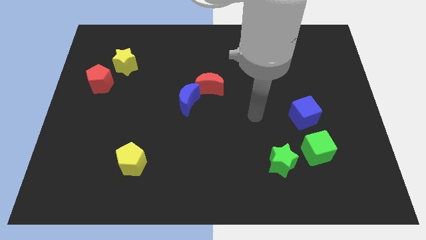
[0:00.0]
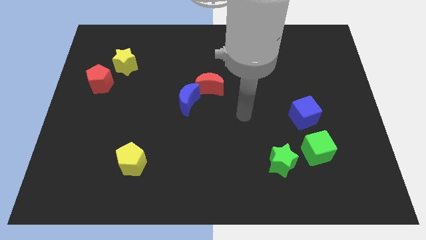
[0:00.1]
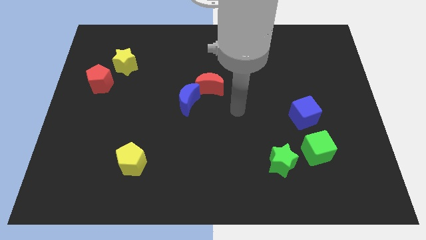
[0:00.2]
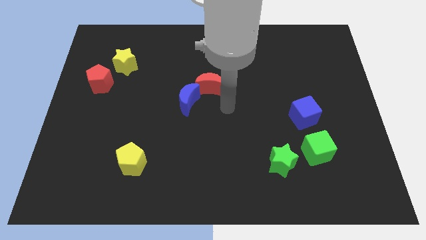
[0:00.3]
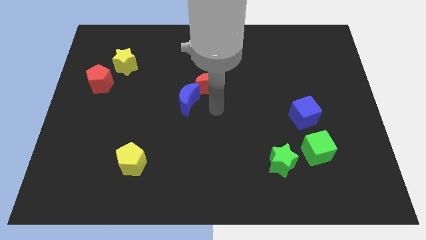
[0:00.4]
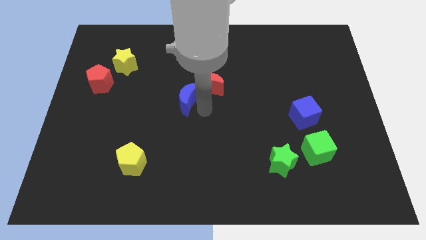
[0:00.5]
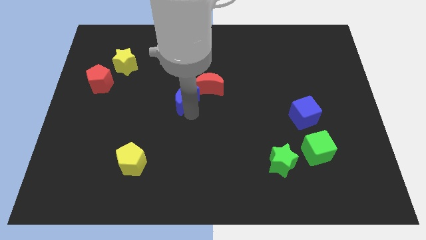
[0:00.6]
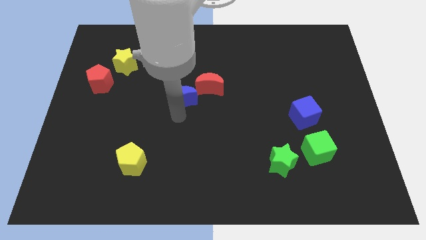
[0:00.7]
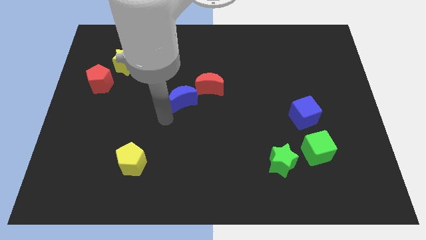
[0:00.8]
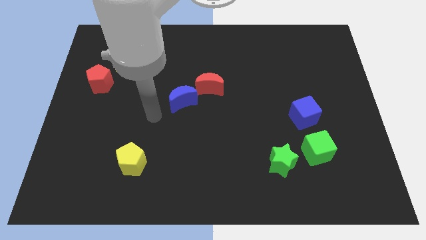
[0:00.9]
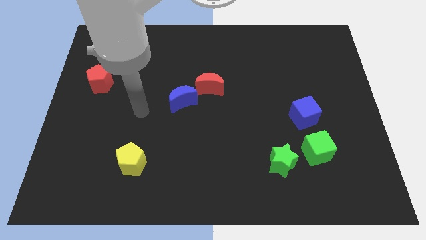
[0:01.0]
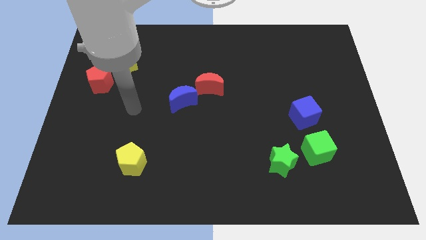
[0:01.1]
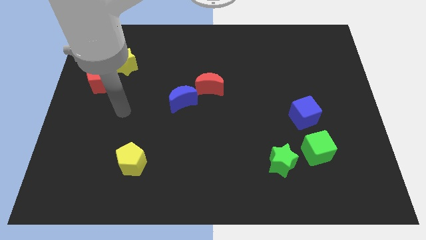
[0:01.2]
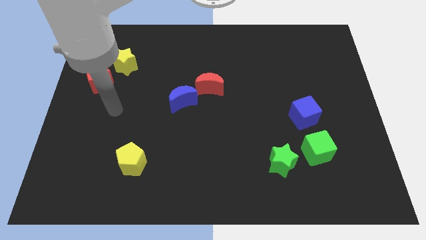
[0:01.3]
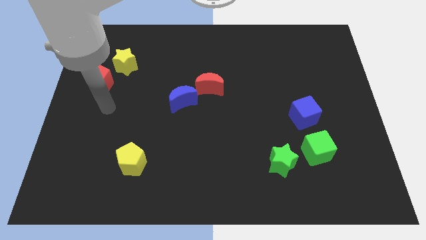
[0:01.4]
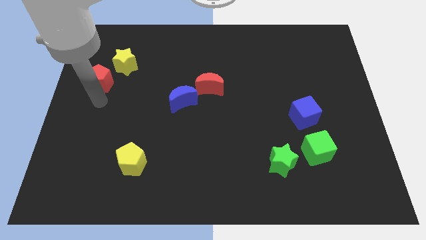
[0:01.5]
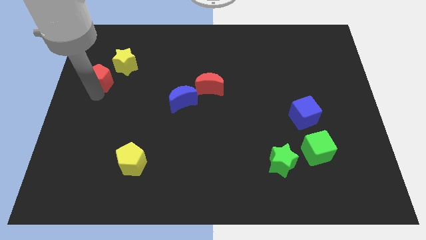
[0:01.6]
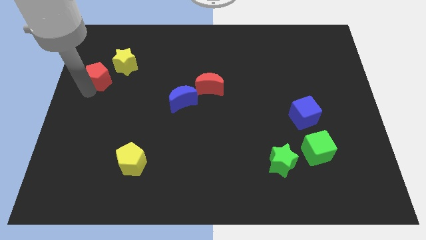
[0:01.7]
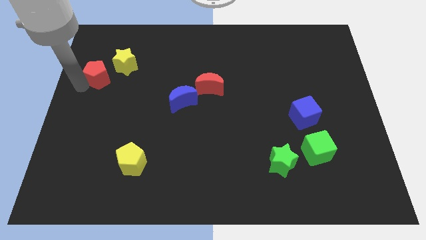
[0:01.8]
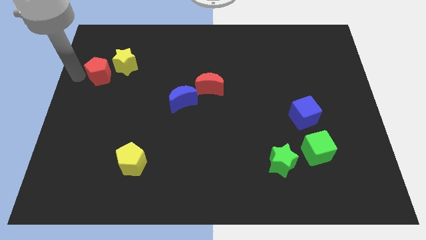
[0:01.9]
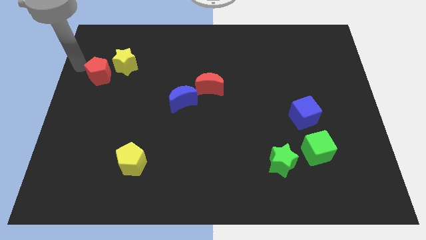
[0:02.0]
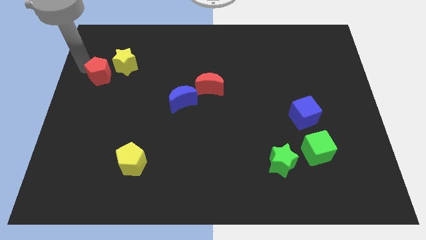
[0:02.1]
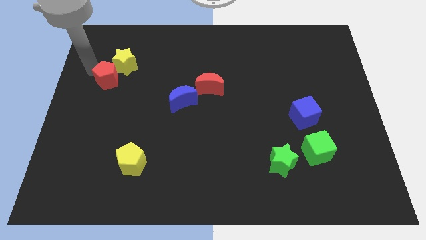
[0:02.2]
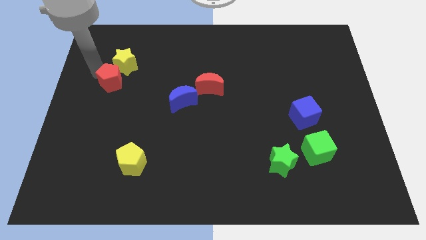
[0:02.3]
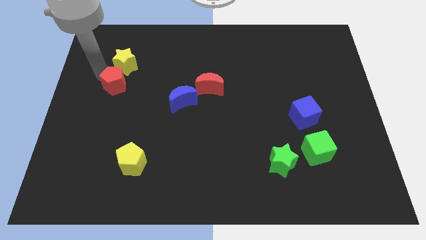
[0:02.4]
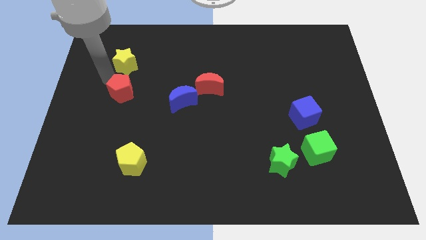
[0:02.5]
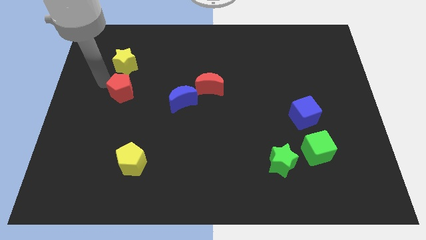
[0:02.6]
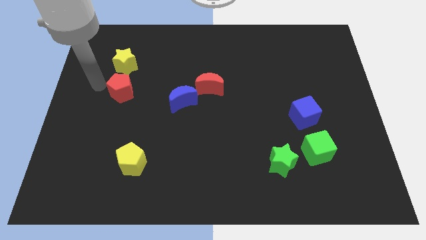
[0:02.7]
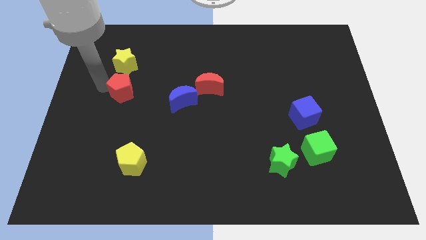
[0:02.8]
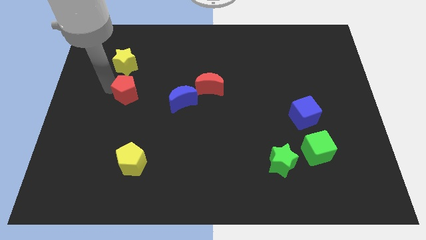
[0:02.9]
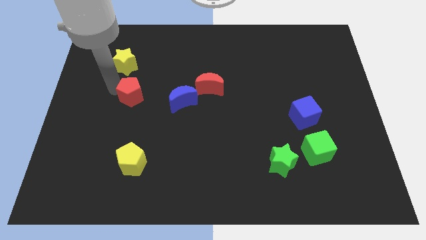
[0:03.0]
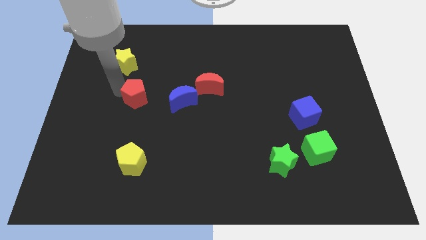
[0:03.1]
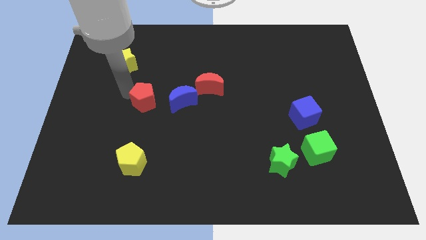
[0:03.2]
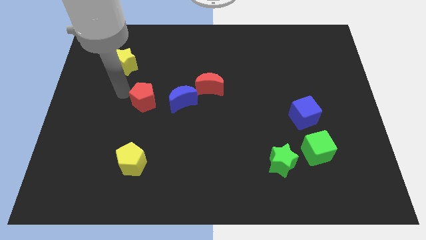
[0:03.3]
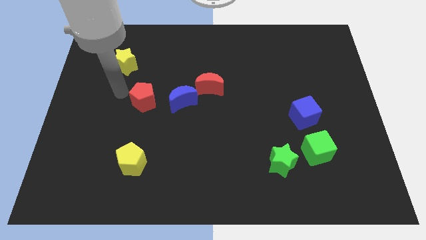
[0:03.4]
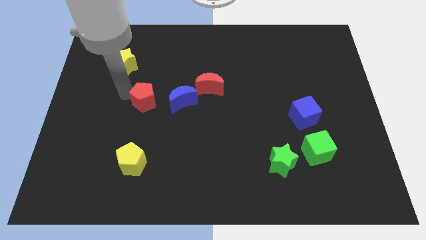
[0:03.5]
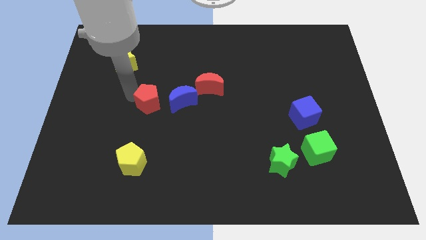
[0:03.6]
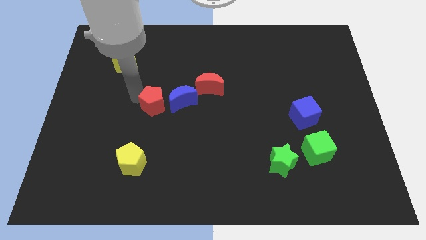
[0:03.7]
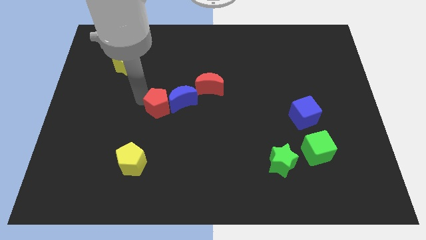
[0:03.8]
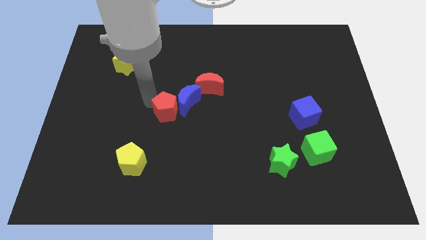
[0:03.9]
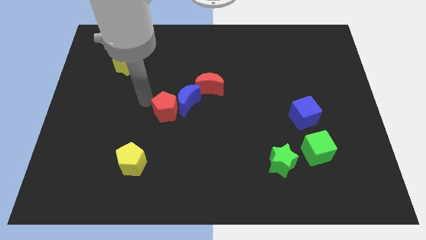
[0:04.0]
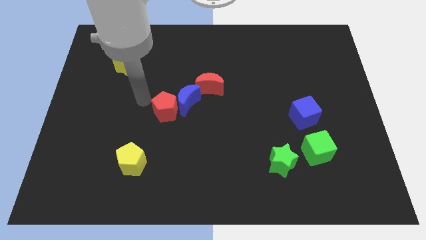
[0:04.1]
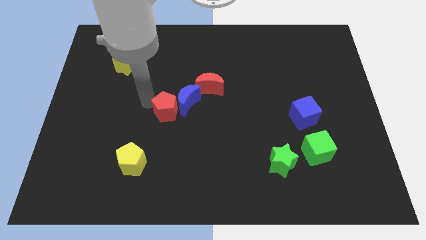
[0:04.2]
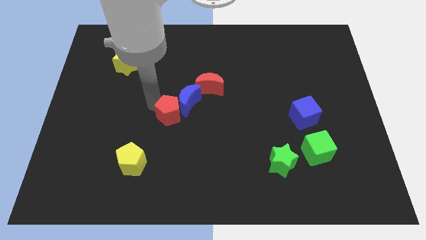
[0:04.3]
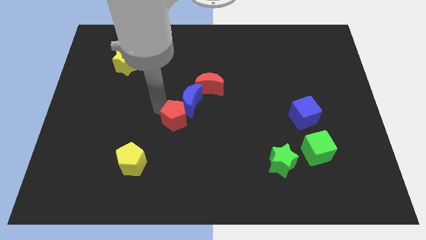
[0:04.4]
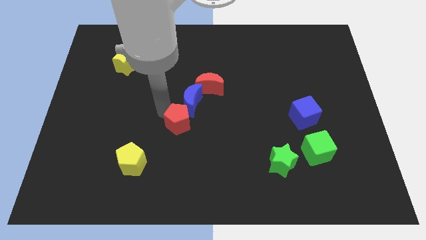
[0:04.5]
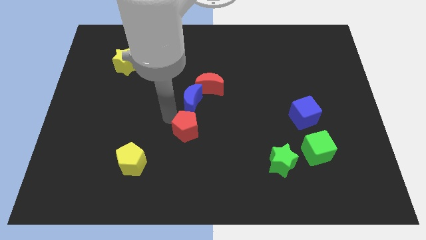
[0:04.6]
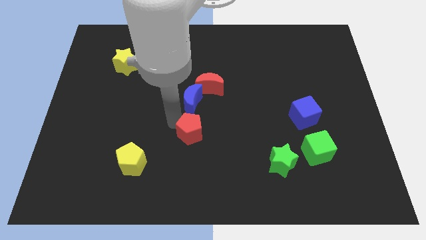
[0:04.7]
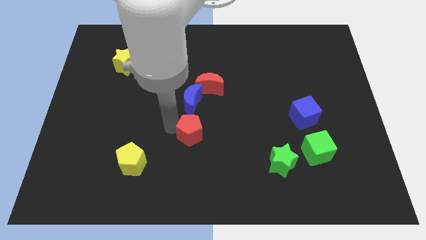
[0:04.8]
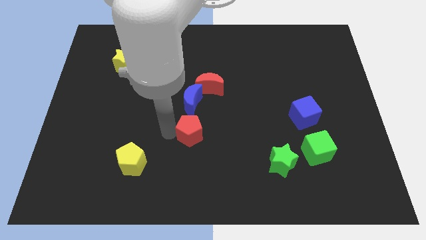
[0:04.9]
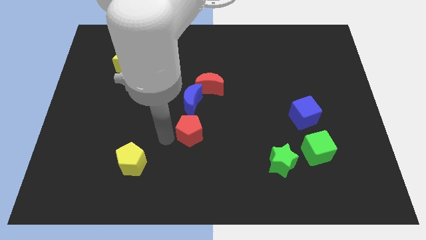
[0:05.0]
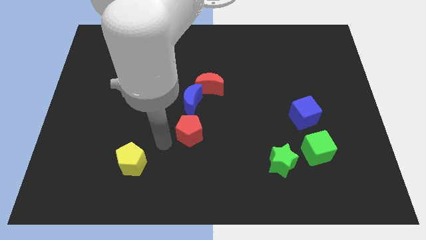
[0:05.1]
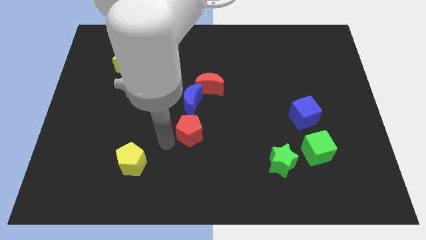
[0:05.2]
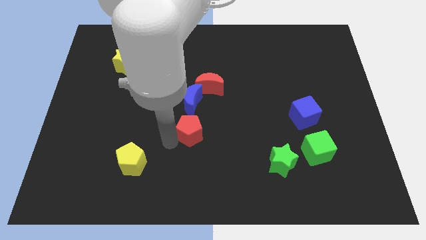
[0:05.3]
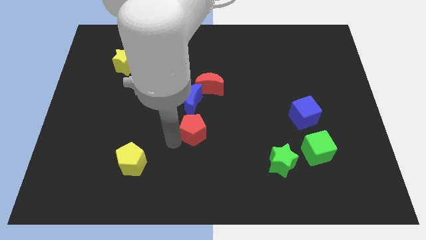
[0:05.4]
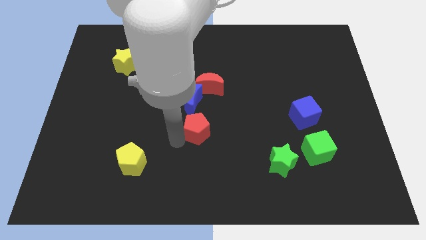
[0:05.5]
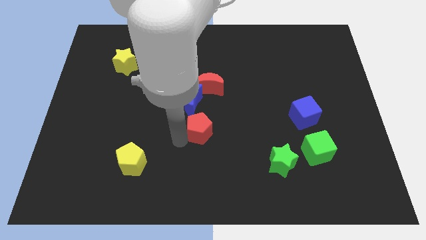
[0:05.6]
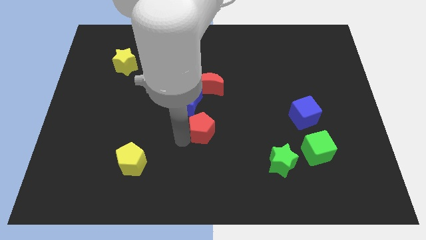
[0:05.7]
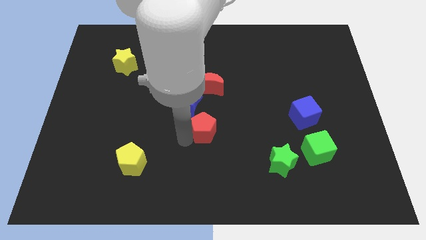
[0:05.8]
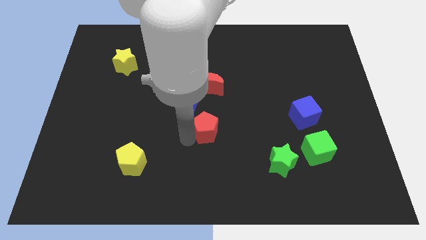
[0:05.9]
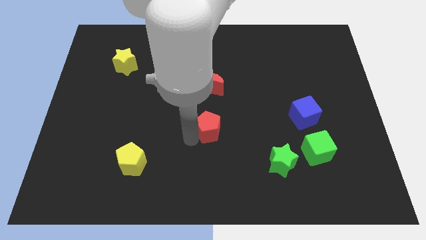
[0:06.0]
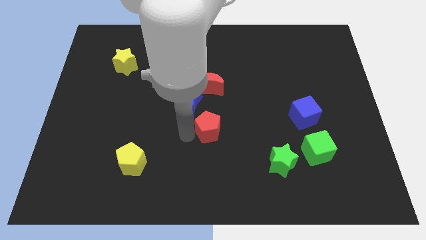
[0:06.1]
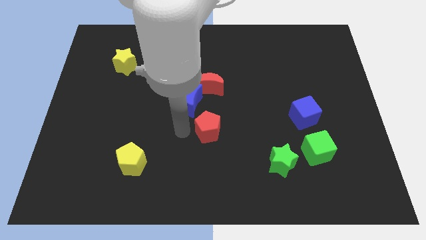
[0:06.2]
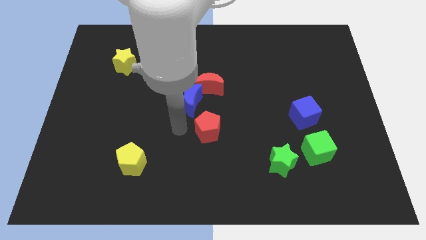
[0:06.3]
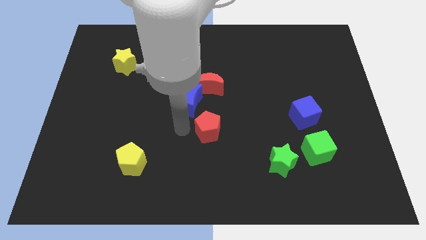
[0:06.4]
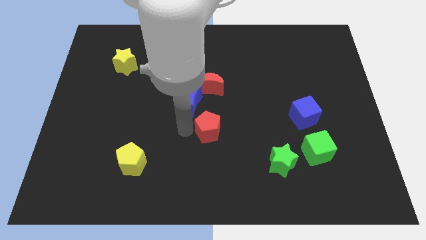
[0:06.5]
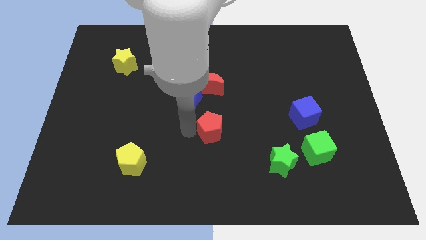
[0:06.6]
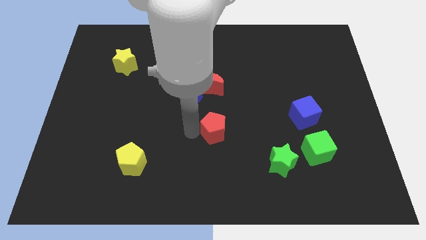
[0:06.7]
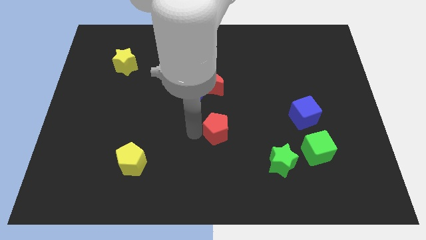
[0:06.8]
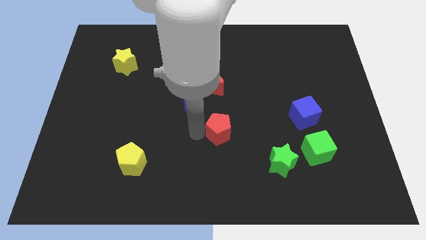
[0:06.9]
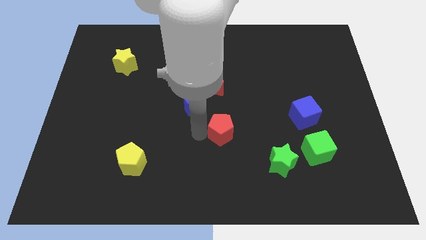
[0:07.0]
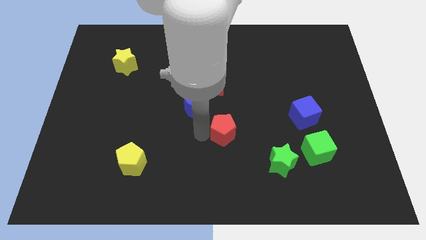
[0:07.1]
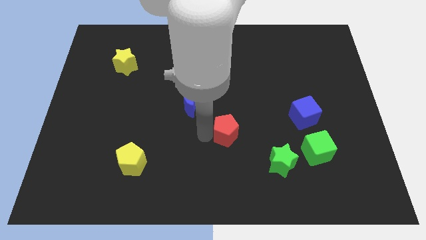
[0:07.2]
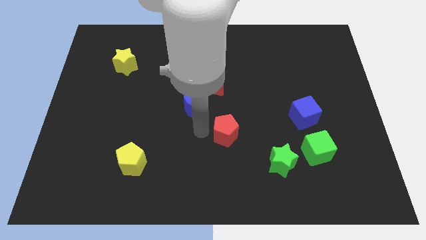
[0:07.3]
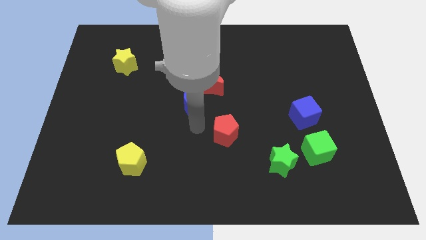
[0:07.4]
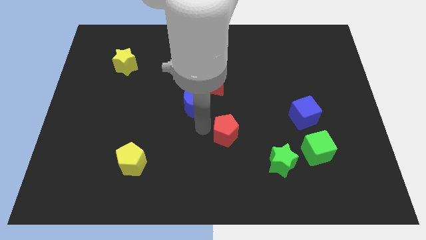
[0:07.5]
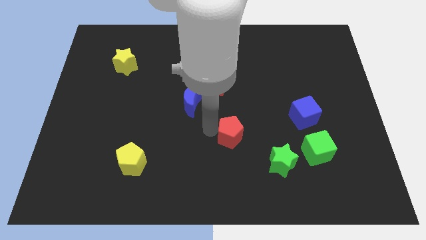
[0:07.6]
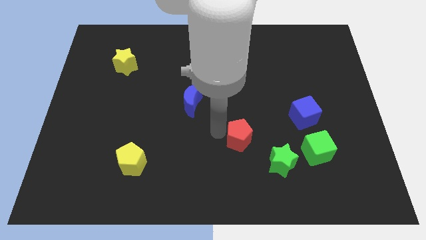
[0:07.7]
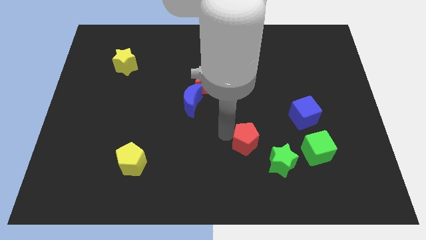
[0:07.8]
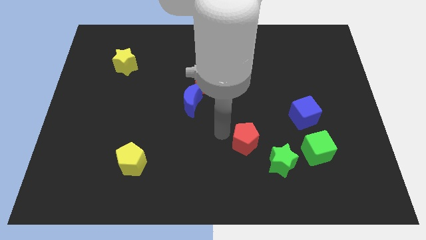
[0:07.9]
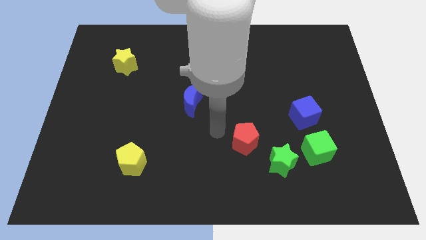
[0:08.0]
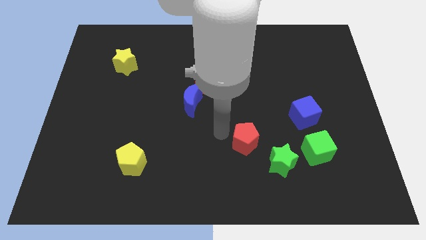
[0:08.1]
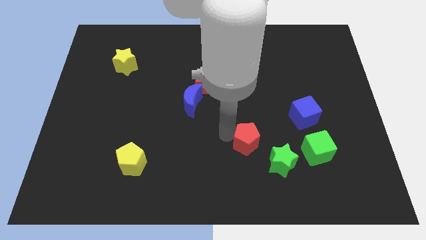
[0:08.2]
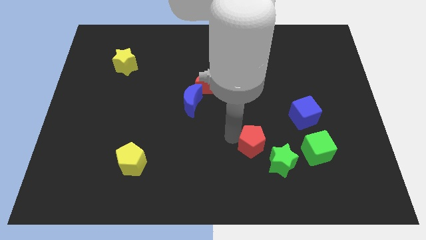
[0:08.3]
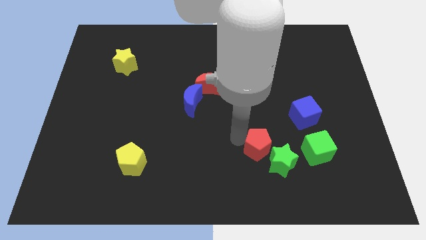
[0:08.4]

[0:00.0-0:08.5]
put the red pentagon towards the green star
